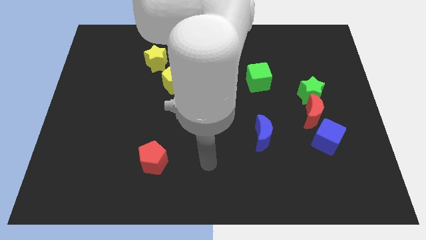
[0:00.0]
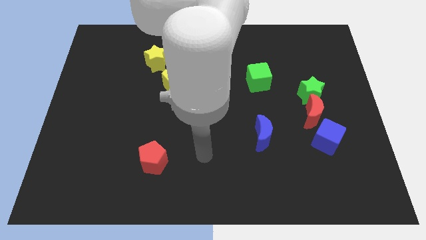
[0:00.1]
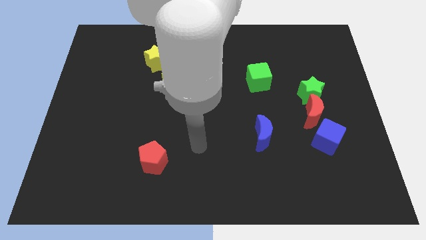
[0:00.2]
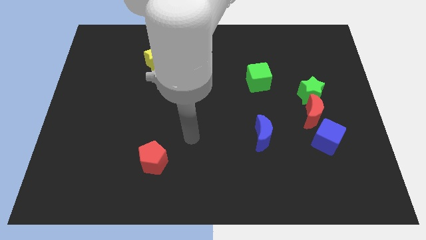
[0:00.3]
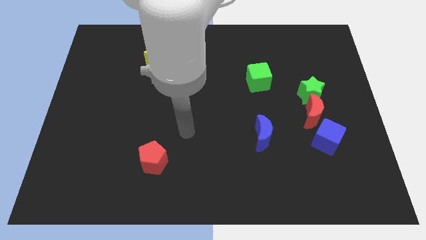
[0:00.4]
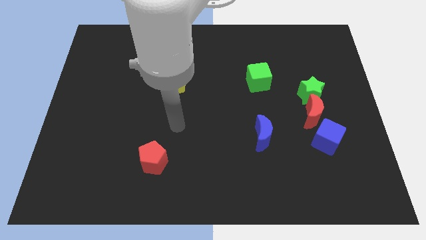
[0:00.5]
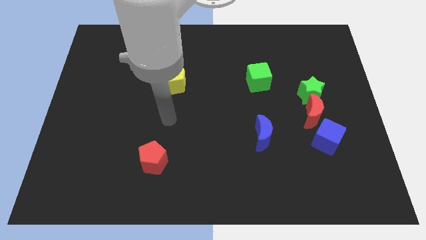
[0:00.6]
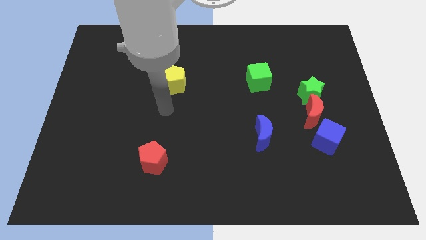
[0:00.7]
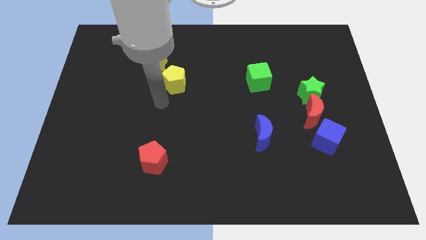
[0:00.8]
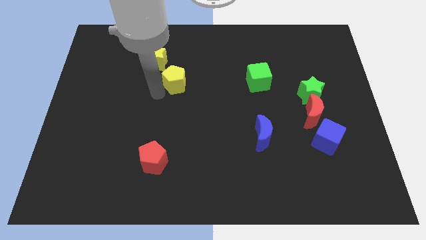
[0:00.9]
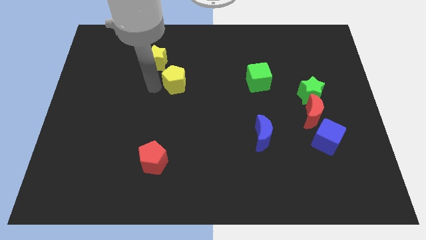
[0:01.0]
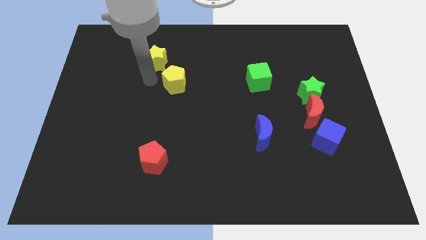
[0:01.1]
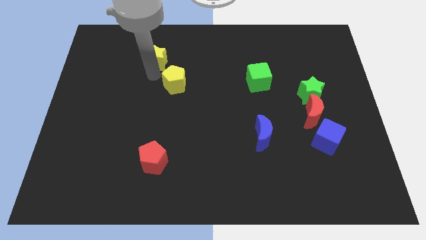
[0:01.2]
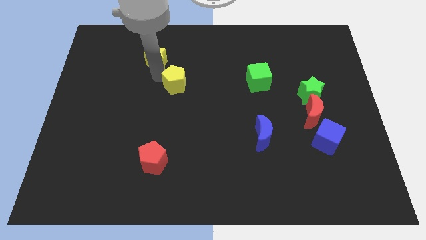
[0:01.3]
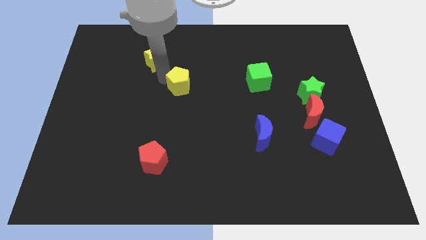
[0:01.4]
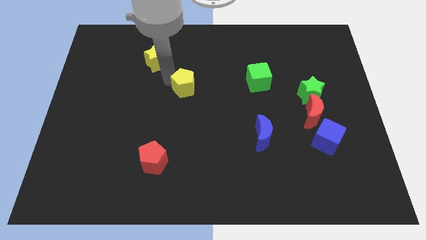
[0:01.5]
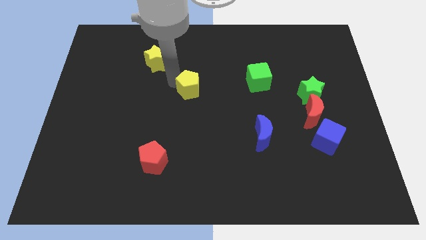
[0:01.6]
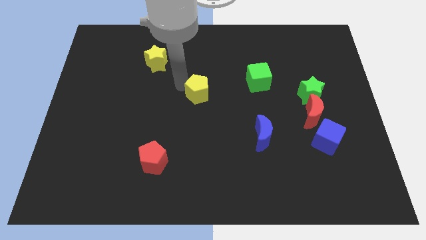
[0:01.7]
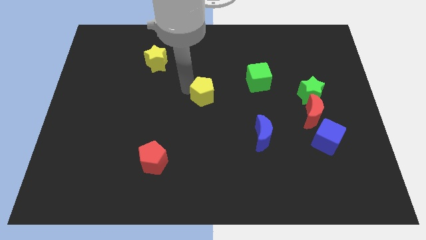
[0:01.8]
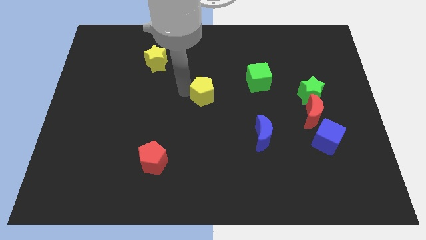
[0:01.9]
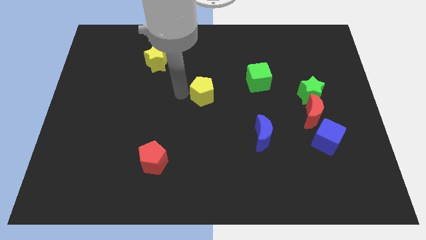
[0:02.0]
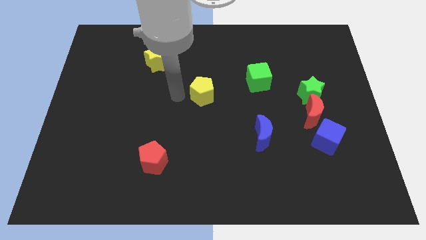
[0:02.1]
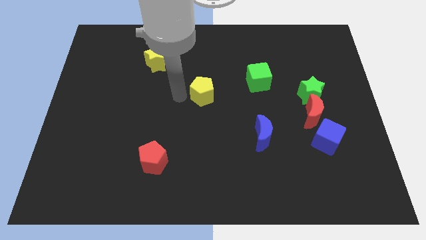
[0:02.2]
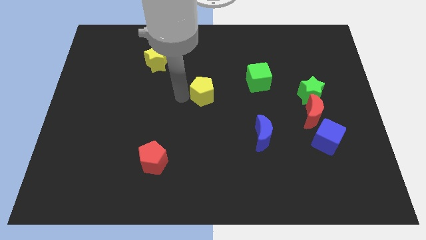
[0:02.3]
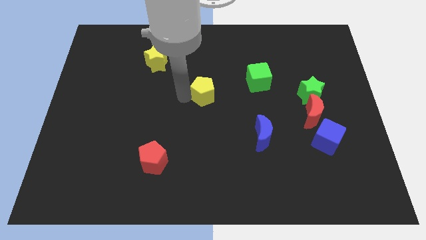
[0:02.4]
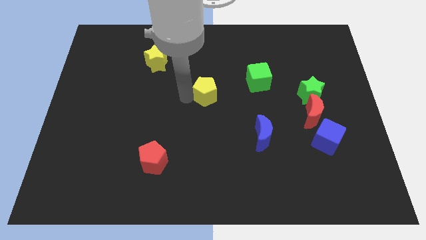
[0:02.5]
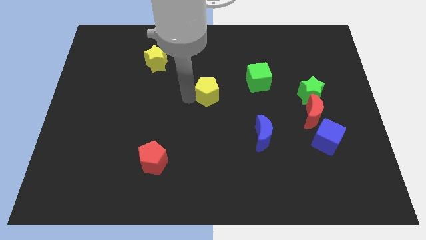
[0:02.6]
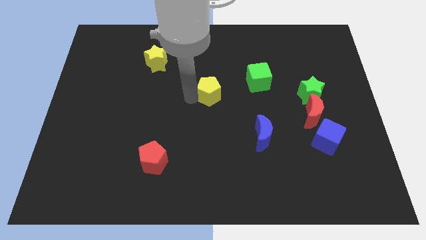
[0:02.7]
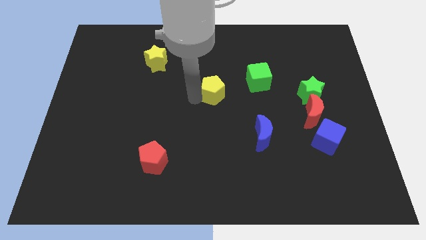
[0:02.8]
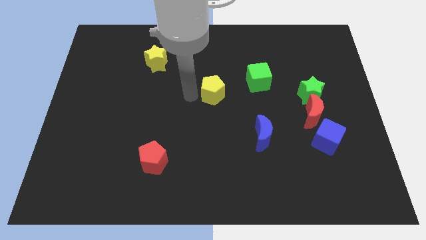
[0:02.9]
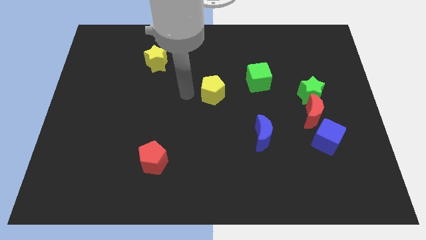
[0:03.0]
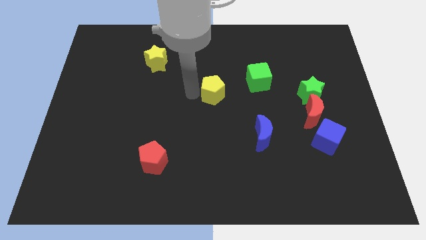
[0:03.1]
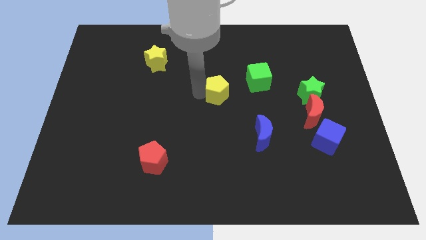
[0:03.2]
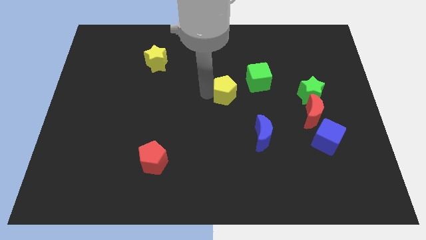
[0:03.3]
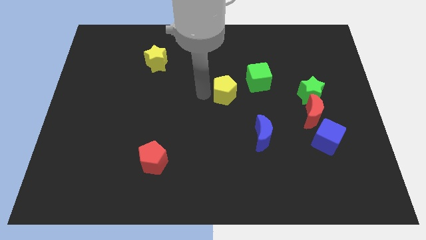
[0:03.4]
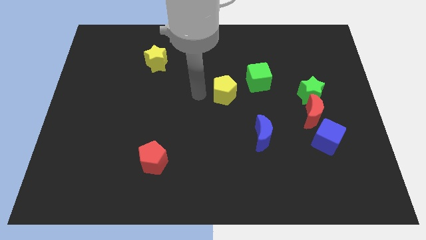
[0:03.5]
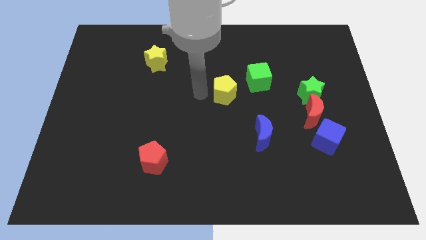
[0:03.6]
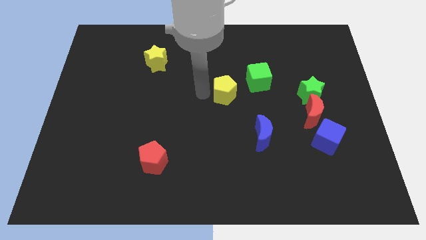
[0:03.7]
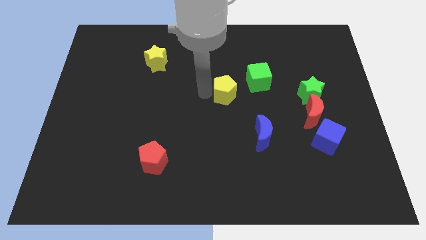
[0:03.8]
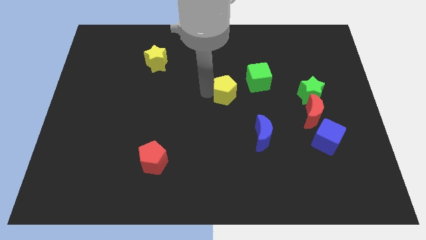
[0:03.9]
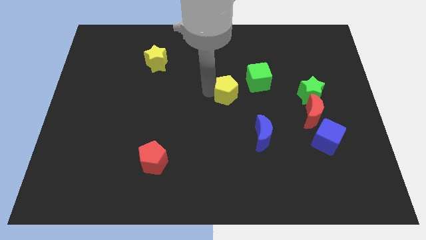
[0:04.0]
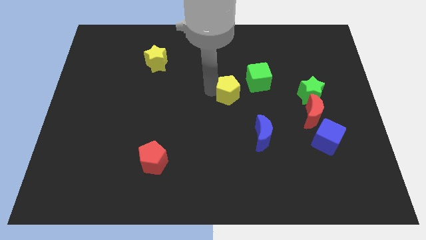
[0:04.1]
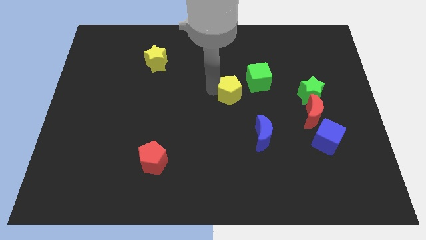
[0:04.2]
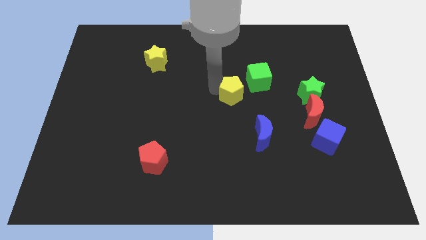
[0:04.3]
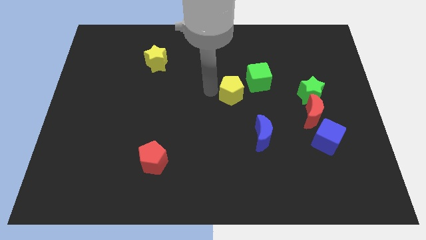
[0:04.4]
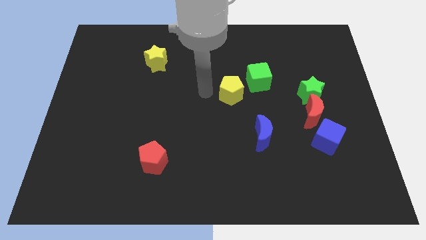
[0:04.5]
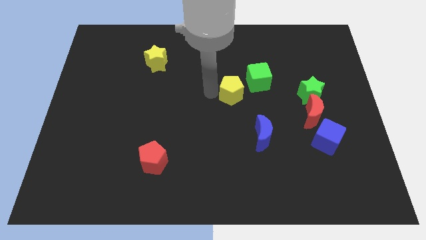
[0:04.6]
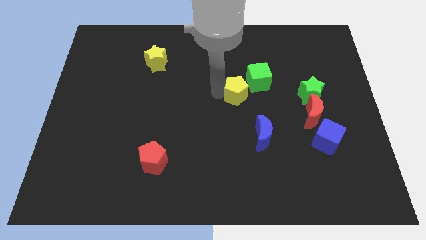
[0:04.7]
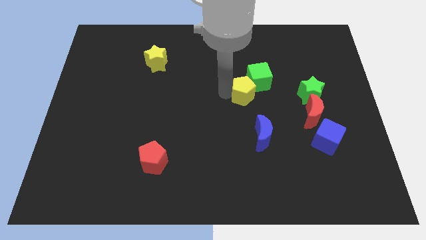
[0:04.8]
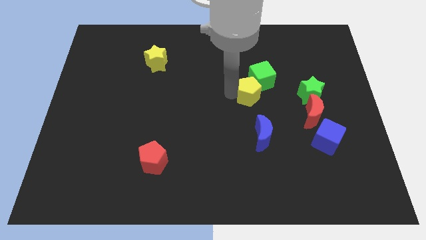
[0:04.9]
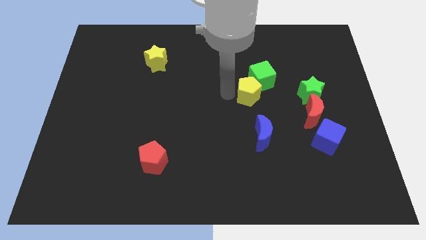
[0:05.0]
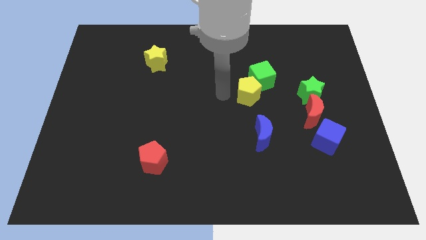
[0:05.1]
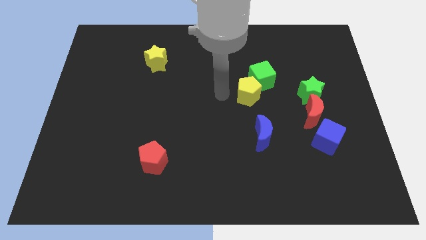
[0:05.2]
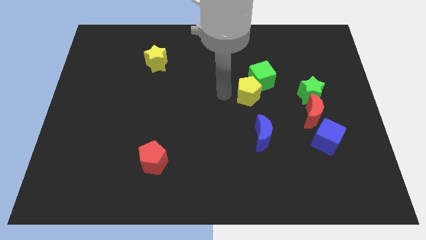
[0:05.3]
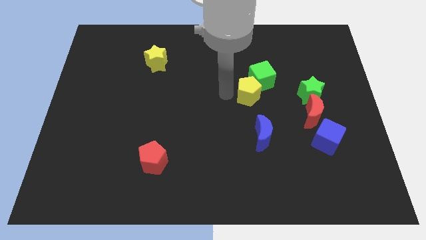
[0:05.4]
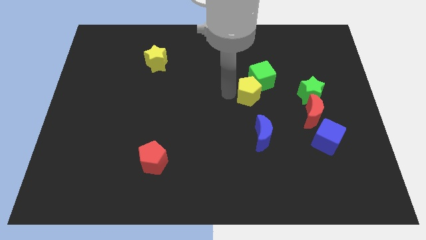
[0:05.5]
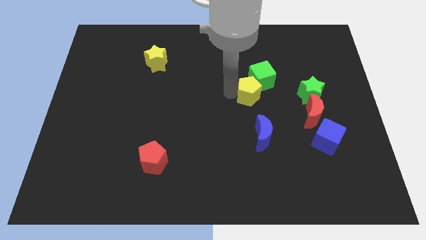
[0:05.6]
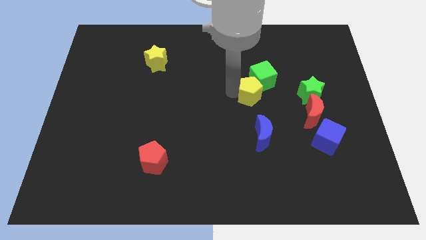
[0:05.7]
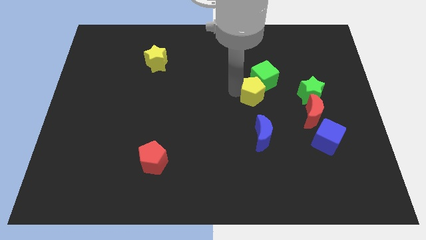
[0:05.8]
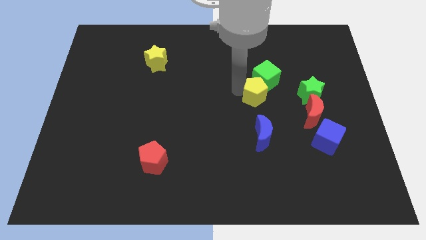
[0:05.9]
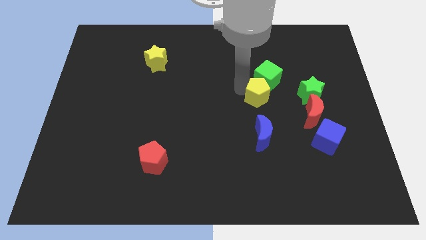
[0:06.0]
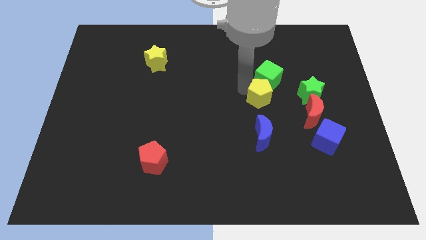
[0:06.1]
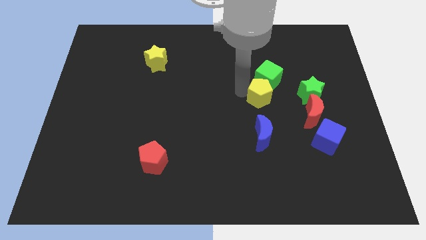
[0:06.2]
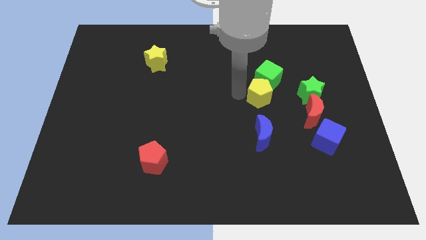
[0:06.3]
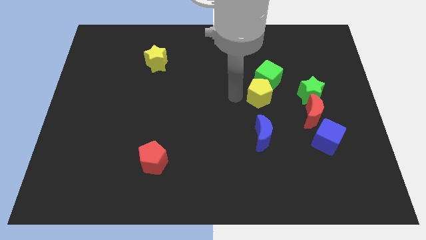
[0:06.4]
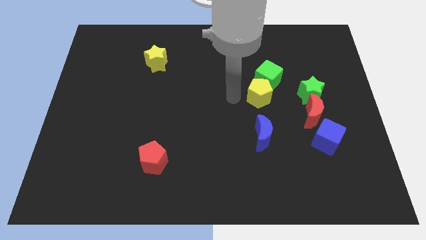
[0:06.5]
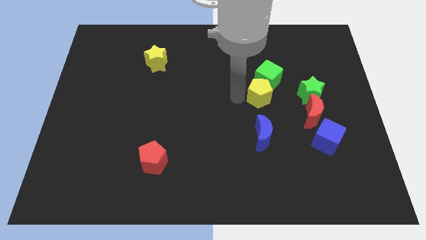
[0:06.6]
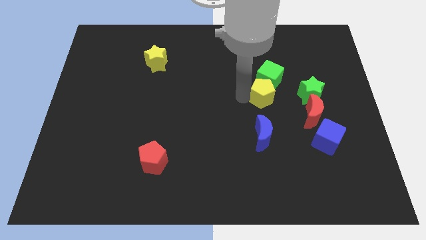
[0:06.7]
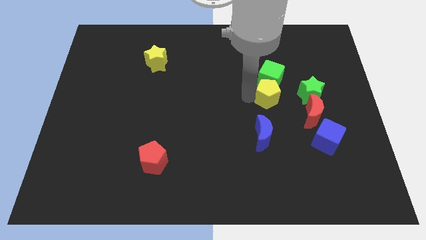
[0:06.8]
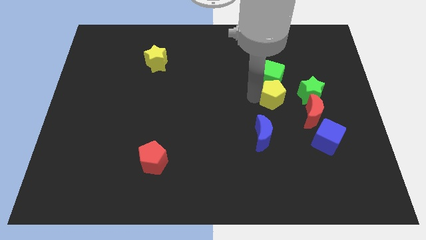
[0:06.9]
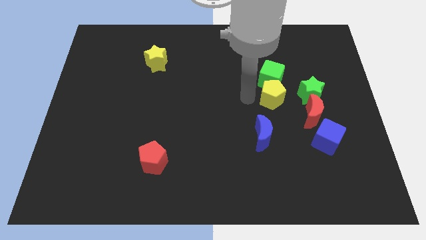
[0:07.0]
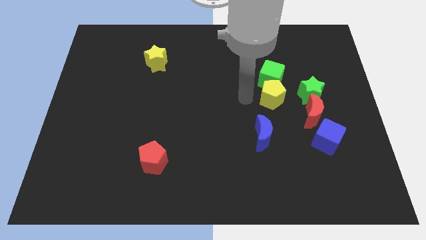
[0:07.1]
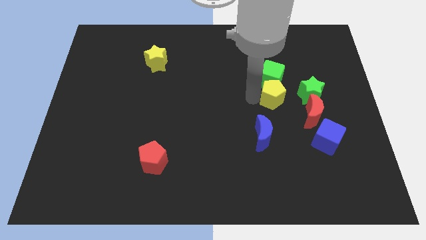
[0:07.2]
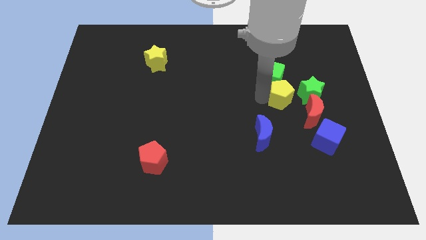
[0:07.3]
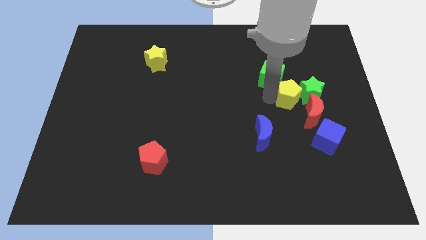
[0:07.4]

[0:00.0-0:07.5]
put the yellow pentagon close to the green star
